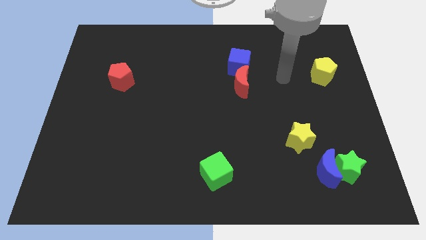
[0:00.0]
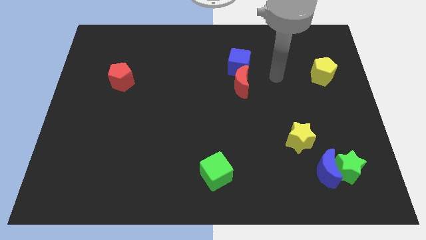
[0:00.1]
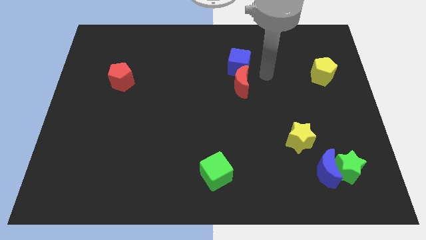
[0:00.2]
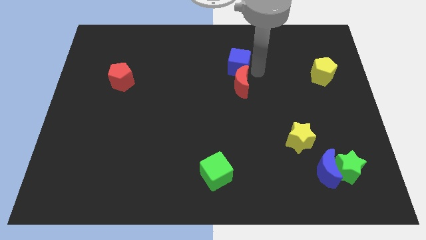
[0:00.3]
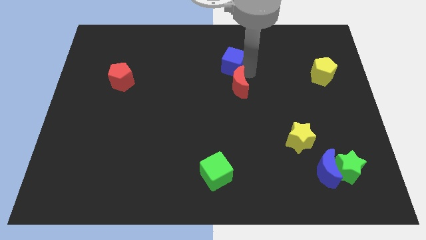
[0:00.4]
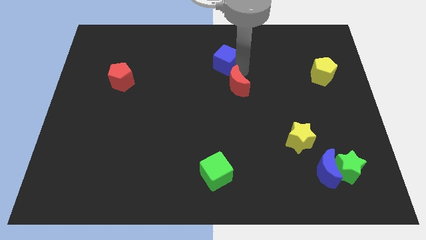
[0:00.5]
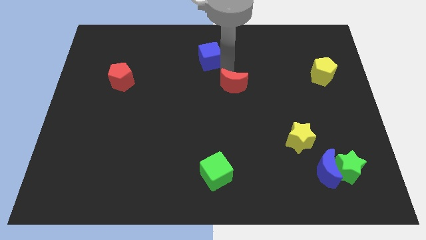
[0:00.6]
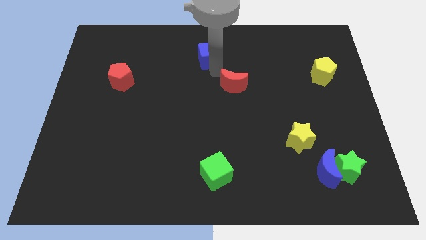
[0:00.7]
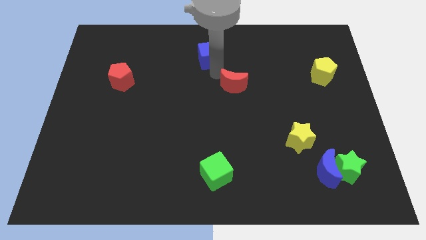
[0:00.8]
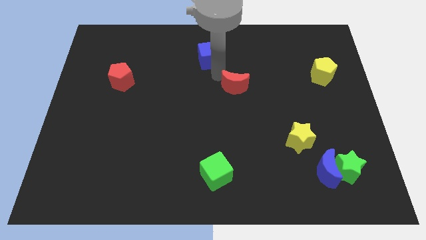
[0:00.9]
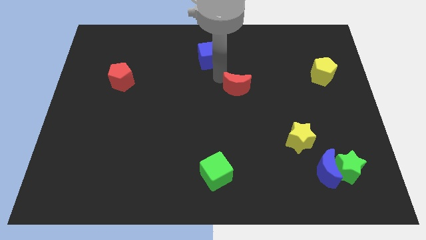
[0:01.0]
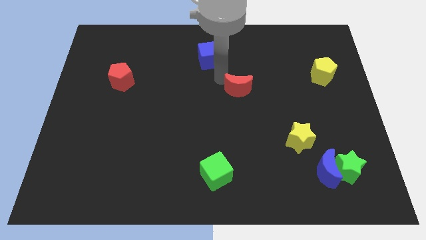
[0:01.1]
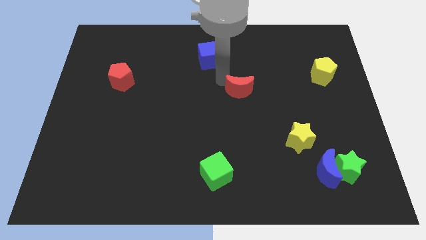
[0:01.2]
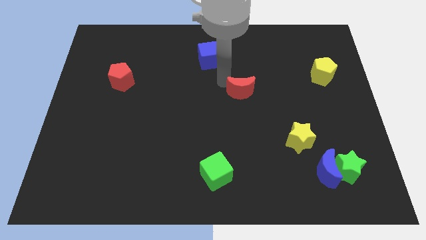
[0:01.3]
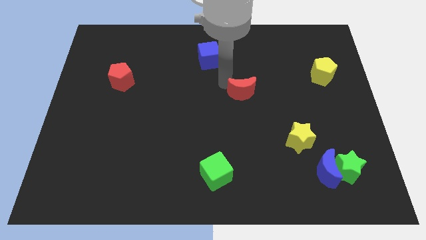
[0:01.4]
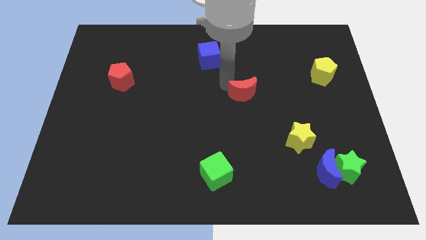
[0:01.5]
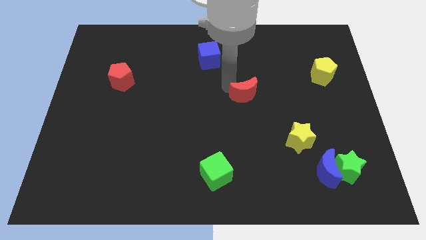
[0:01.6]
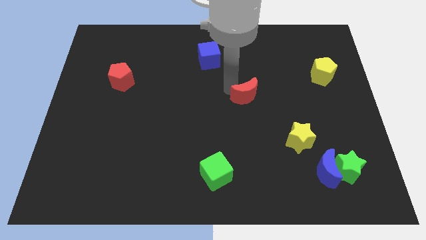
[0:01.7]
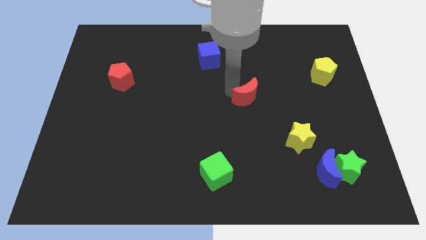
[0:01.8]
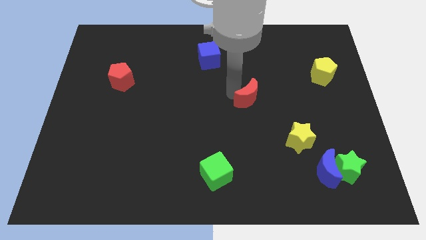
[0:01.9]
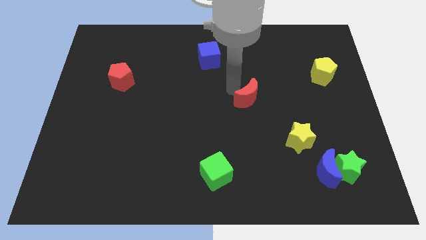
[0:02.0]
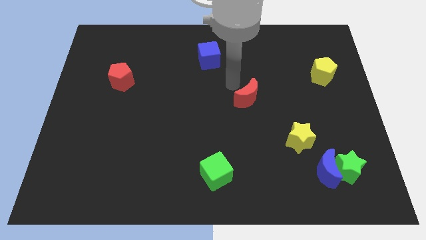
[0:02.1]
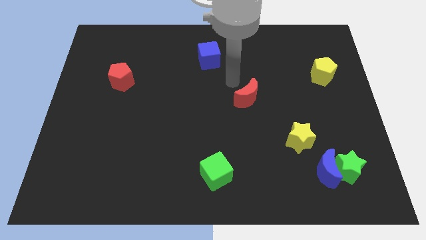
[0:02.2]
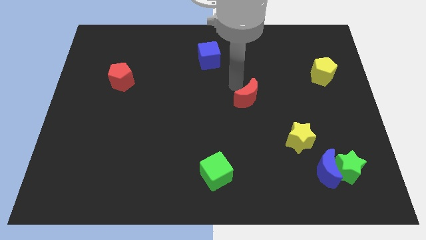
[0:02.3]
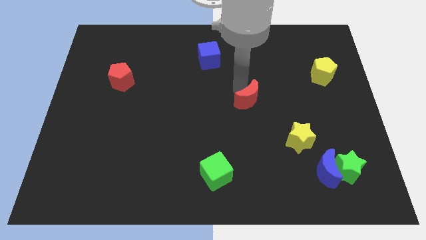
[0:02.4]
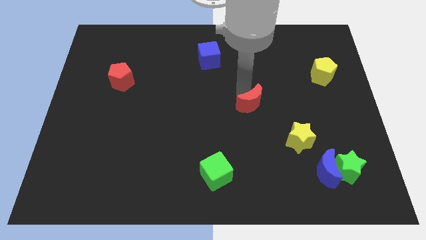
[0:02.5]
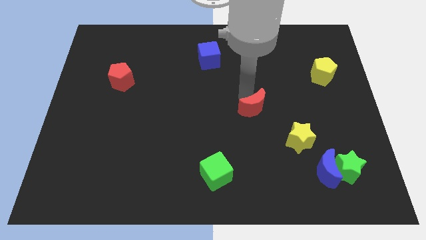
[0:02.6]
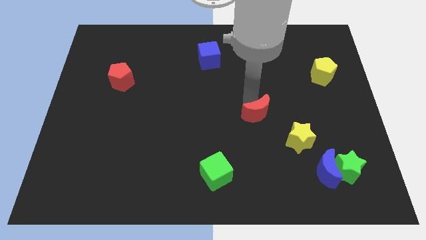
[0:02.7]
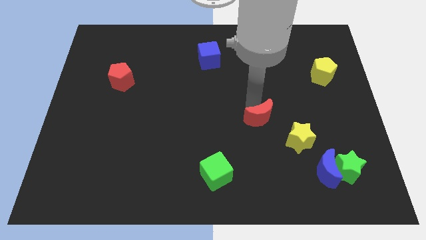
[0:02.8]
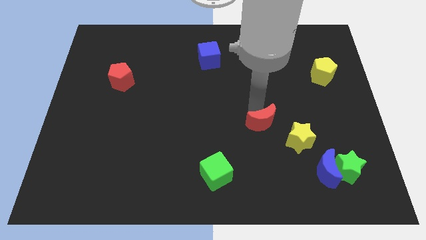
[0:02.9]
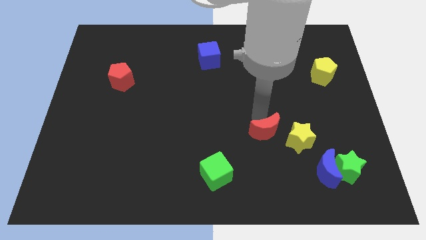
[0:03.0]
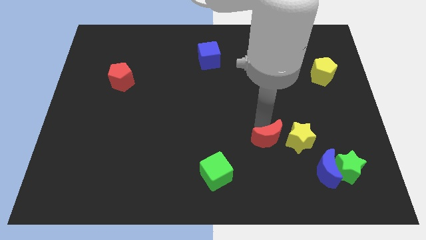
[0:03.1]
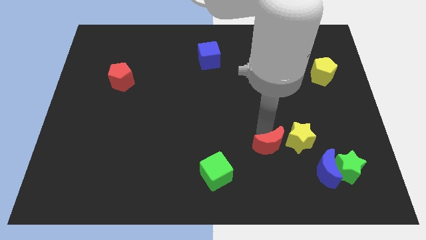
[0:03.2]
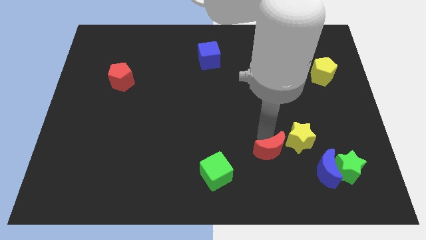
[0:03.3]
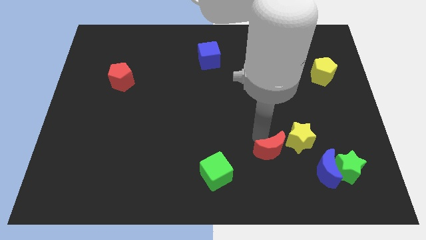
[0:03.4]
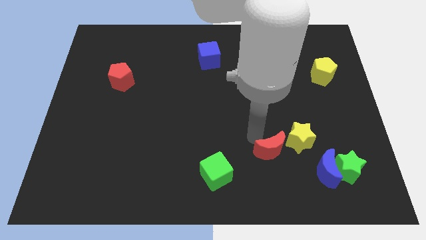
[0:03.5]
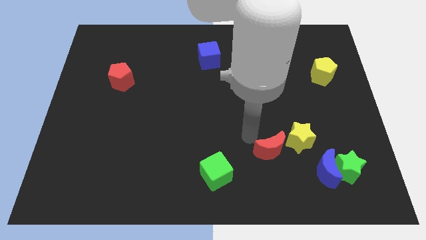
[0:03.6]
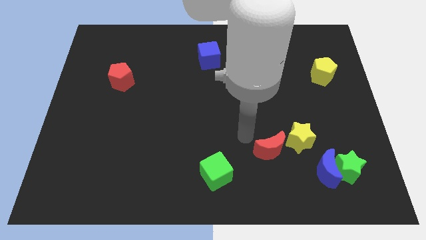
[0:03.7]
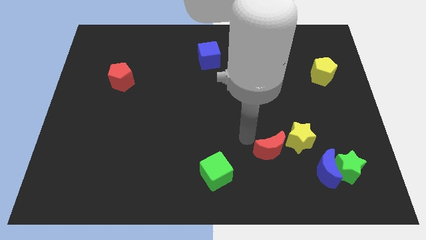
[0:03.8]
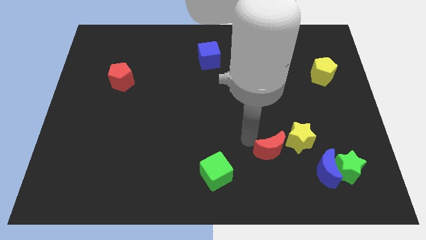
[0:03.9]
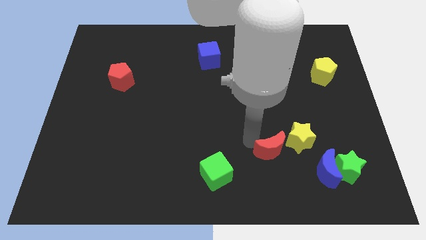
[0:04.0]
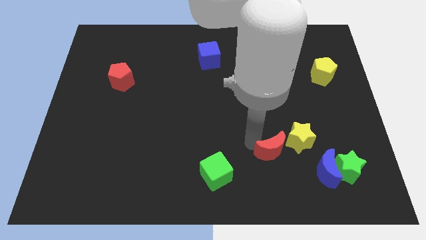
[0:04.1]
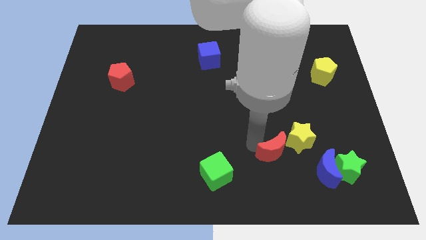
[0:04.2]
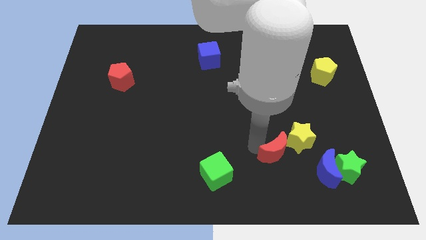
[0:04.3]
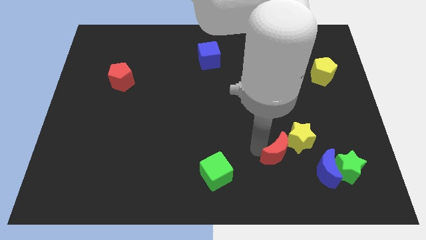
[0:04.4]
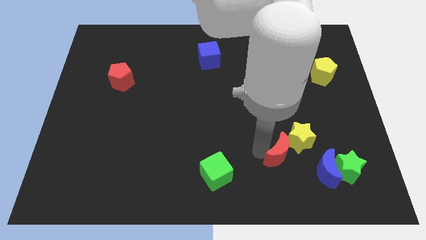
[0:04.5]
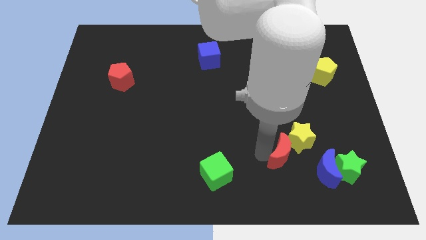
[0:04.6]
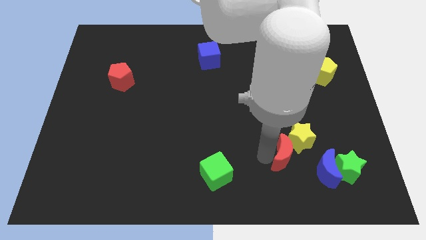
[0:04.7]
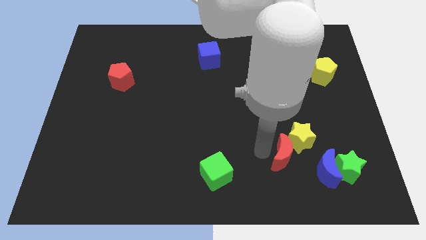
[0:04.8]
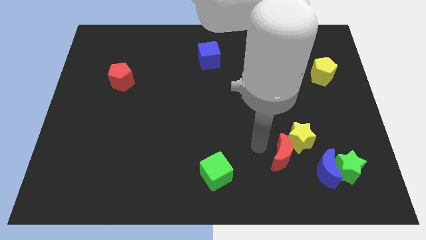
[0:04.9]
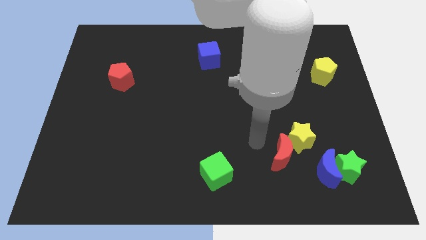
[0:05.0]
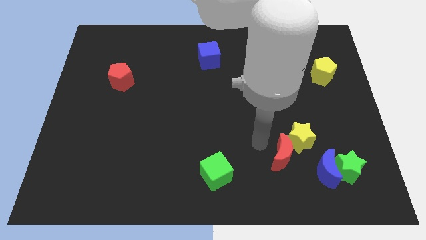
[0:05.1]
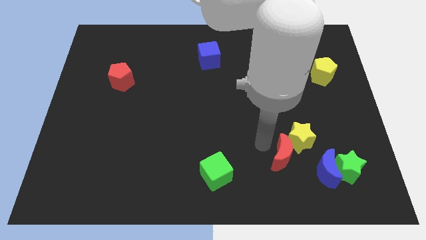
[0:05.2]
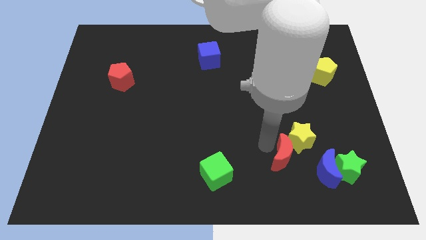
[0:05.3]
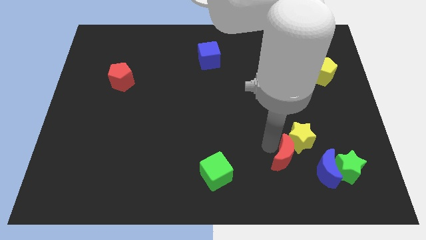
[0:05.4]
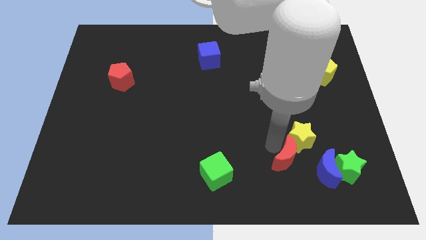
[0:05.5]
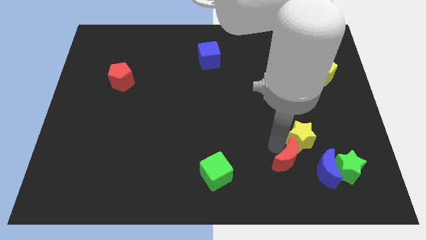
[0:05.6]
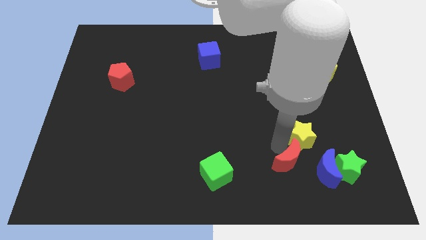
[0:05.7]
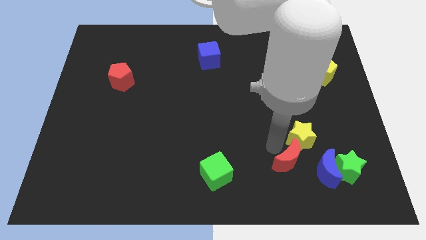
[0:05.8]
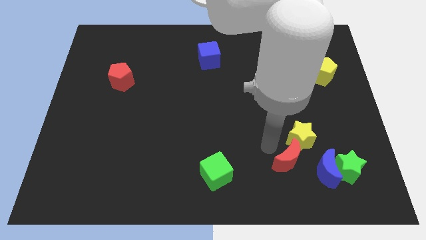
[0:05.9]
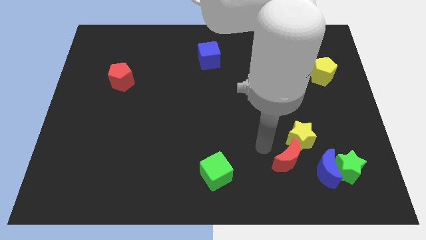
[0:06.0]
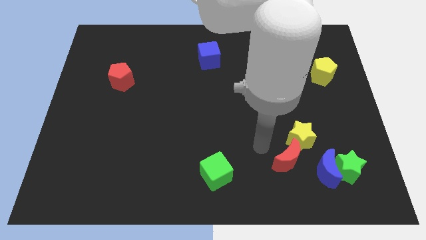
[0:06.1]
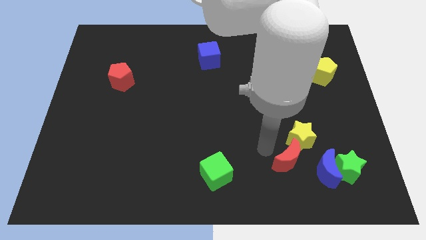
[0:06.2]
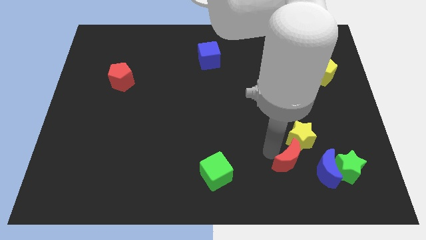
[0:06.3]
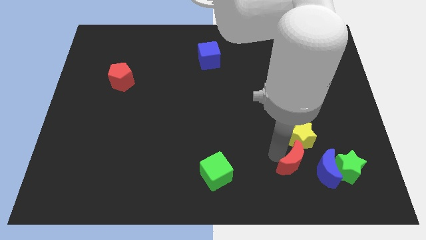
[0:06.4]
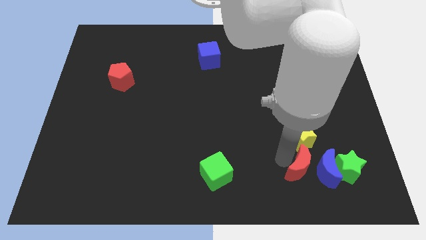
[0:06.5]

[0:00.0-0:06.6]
slide the red moon close to the blue moon

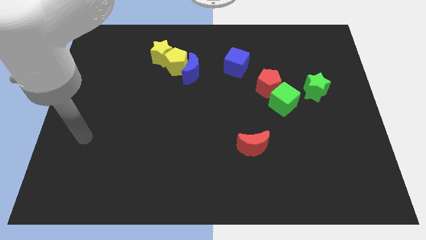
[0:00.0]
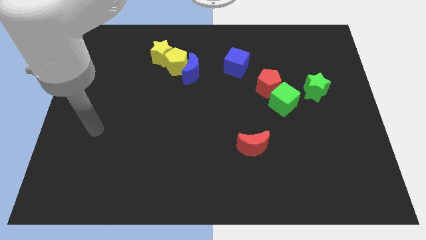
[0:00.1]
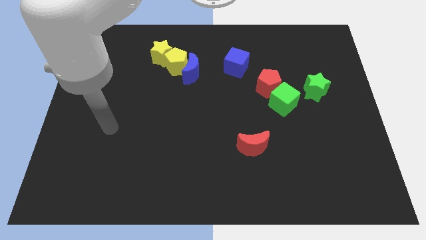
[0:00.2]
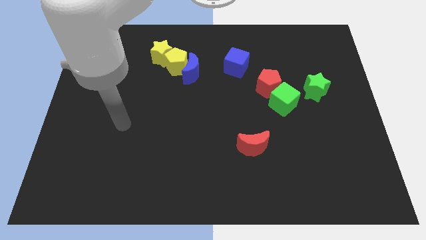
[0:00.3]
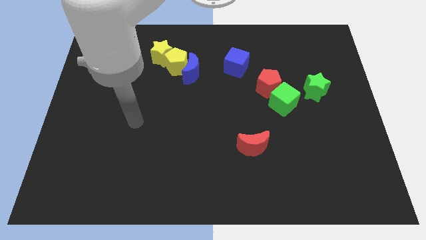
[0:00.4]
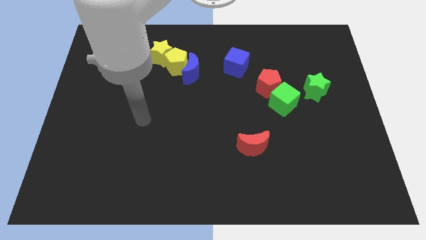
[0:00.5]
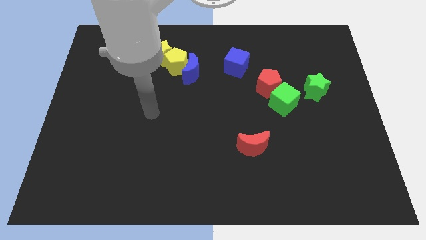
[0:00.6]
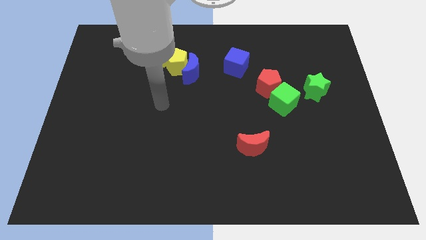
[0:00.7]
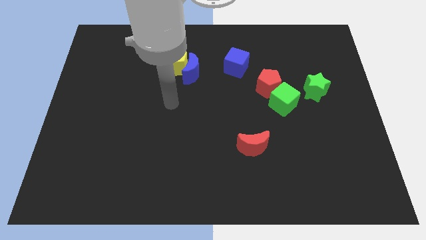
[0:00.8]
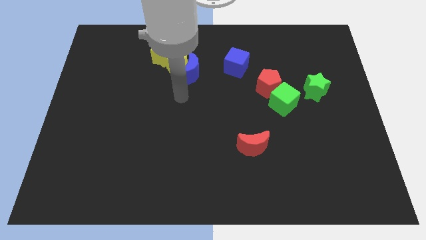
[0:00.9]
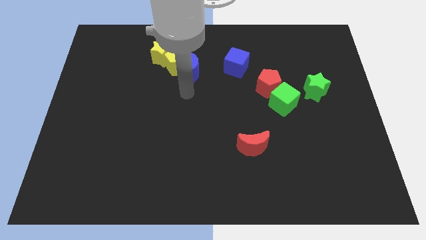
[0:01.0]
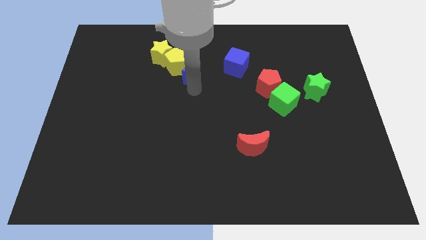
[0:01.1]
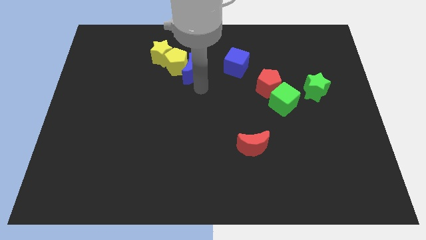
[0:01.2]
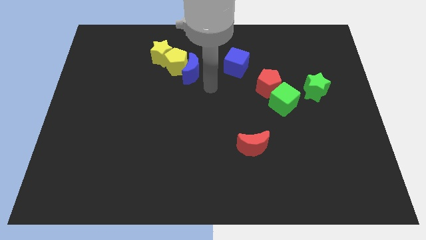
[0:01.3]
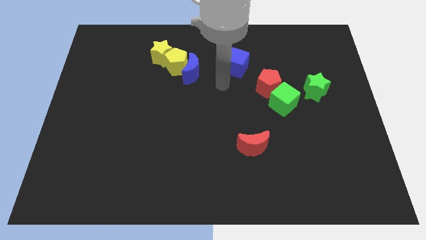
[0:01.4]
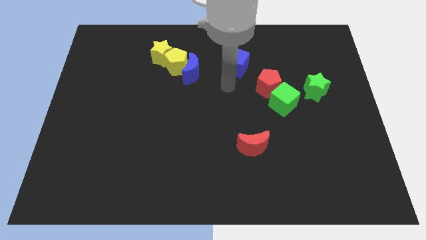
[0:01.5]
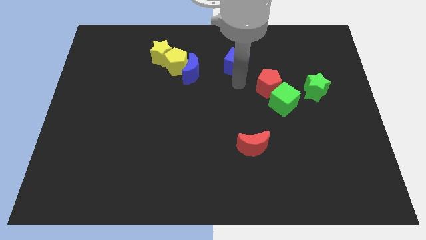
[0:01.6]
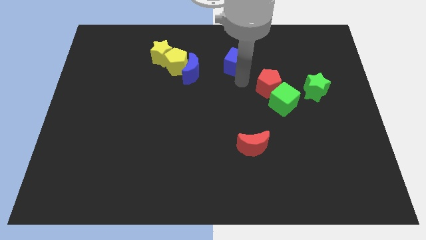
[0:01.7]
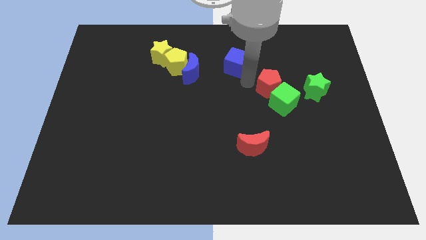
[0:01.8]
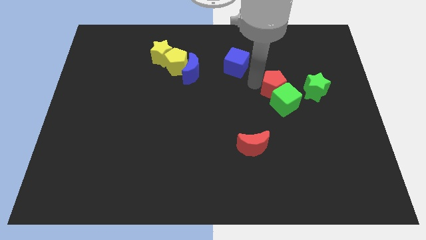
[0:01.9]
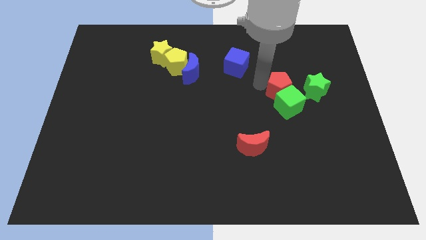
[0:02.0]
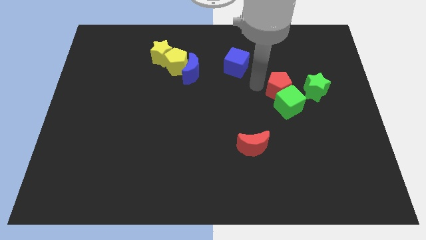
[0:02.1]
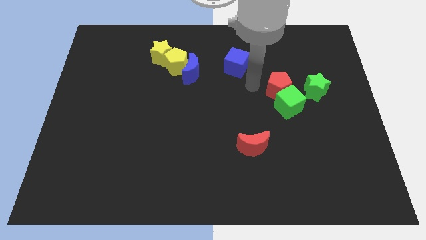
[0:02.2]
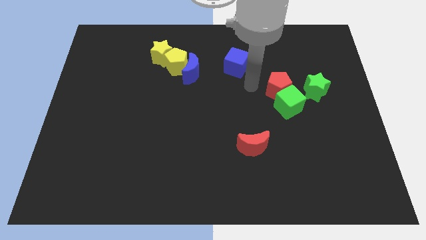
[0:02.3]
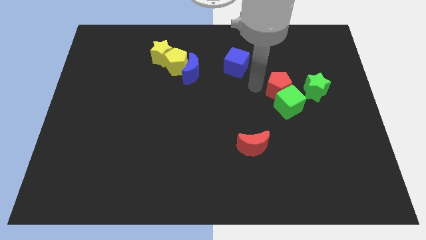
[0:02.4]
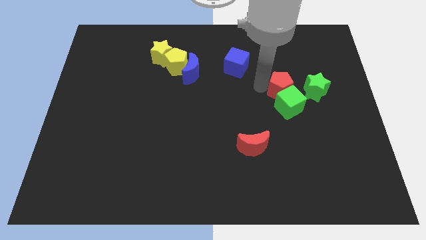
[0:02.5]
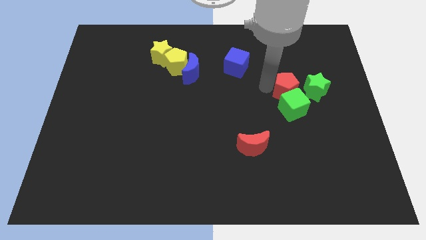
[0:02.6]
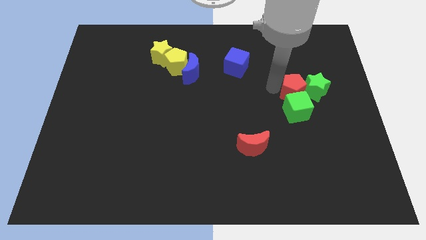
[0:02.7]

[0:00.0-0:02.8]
put the red pentagon close to the green star
